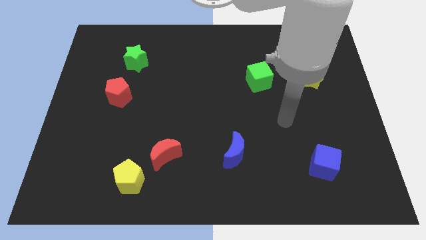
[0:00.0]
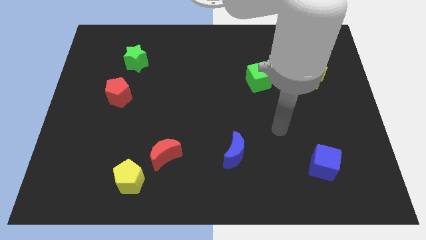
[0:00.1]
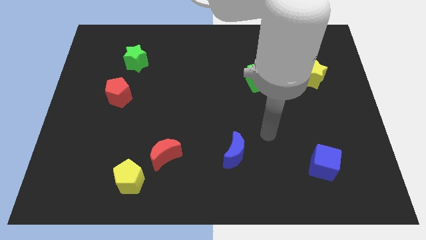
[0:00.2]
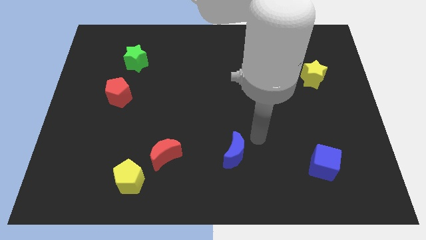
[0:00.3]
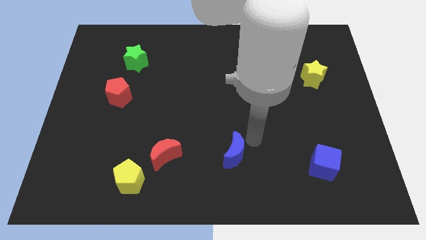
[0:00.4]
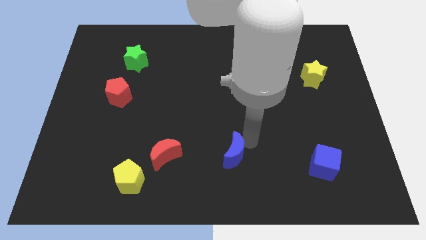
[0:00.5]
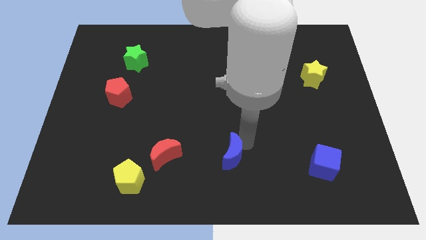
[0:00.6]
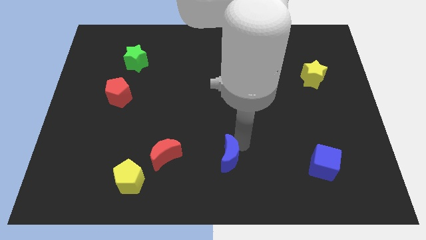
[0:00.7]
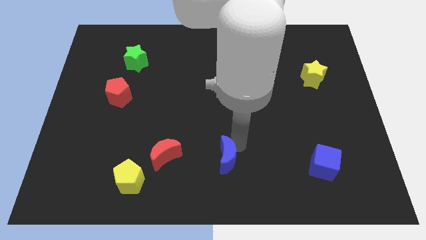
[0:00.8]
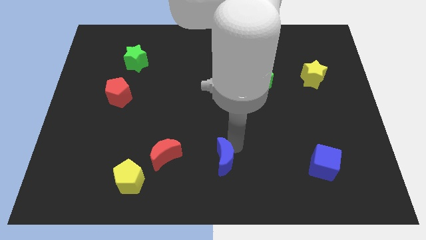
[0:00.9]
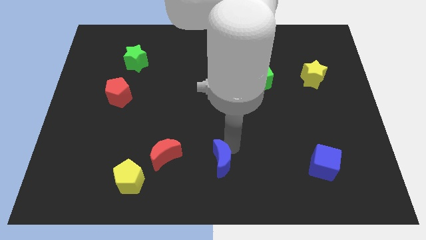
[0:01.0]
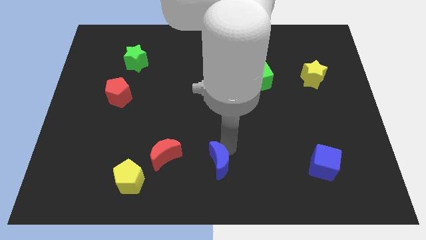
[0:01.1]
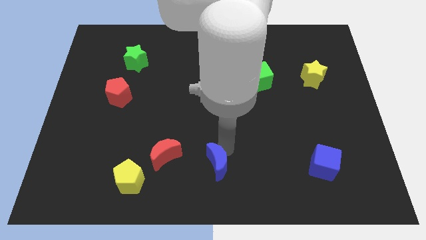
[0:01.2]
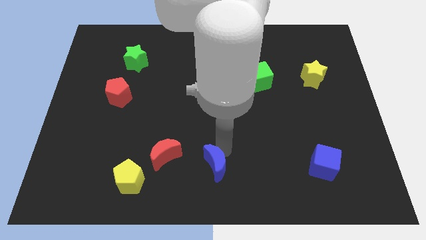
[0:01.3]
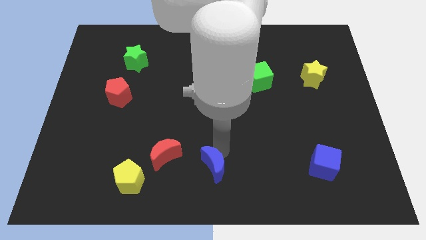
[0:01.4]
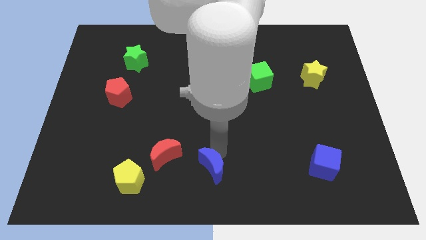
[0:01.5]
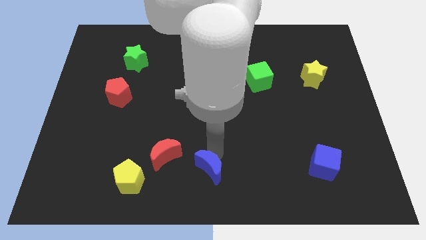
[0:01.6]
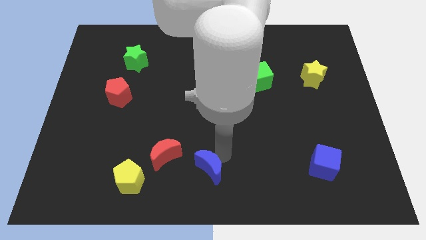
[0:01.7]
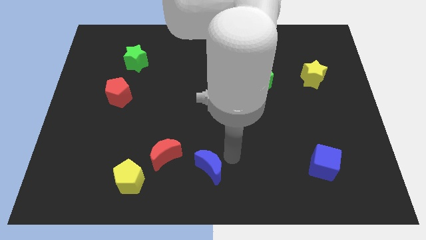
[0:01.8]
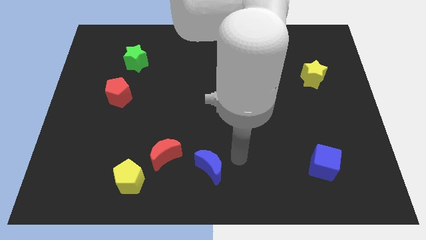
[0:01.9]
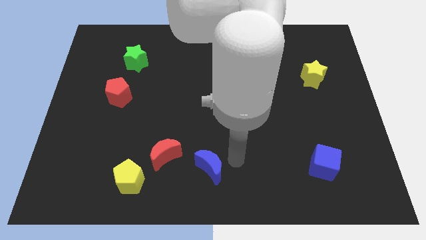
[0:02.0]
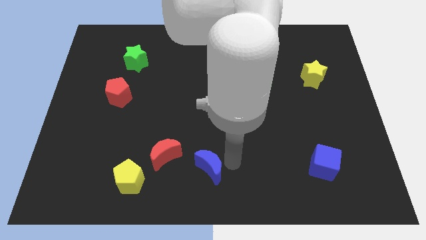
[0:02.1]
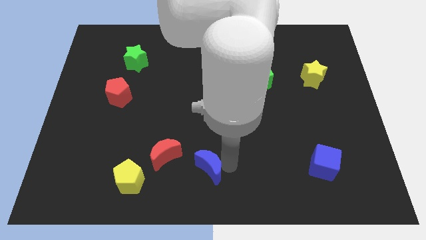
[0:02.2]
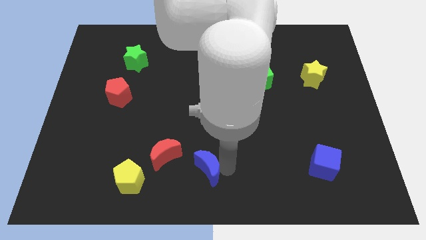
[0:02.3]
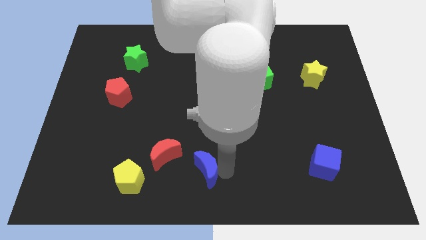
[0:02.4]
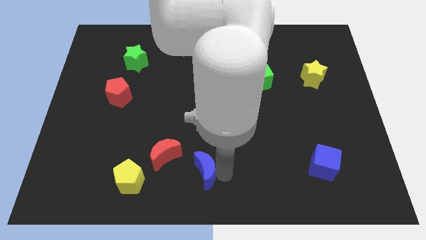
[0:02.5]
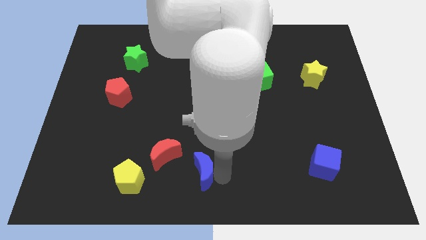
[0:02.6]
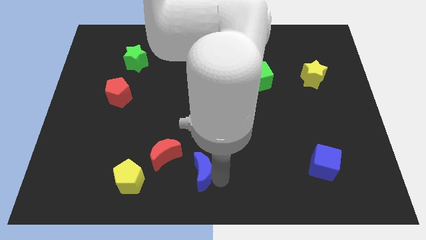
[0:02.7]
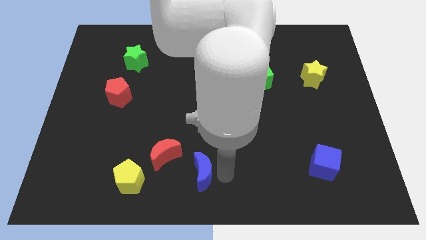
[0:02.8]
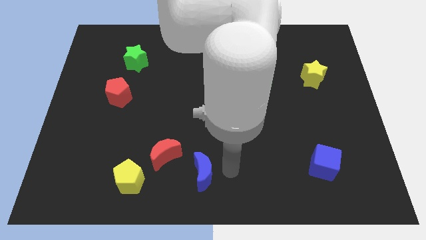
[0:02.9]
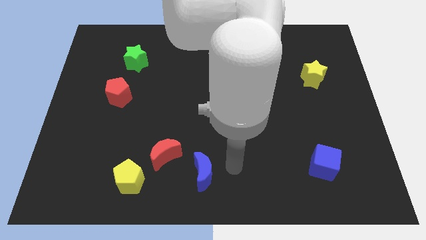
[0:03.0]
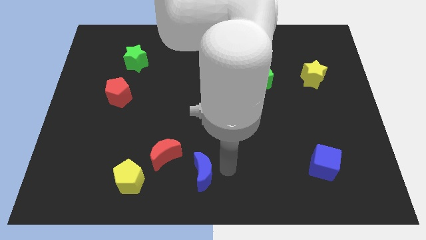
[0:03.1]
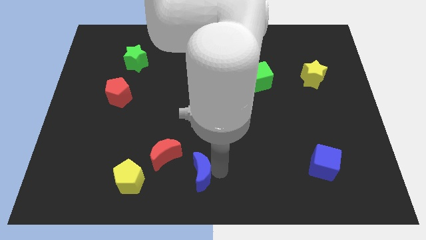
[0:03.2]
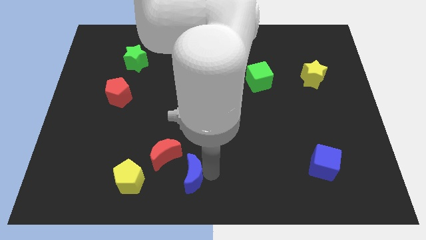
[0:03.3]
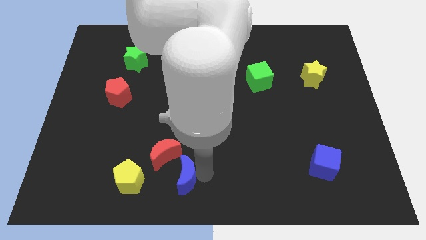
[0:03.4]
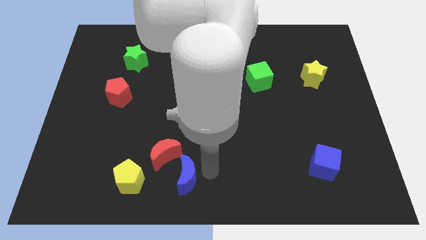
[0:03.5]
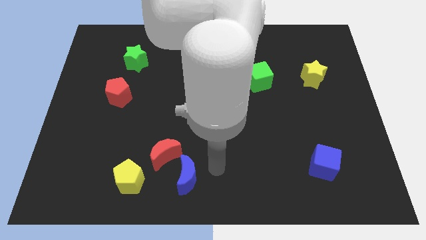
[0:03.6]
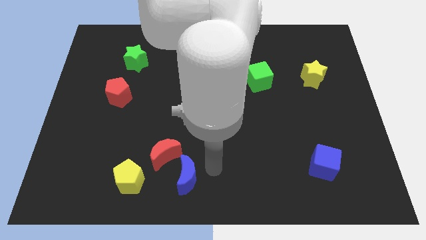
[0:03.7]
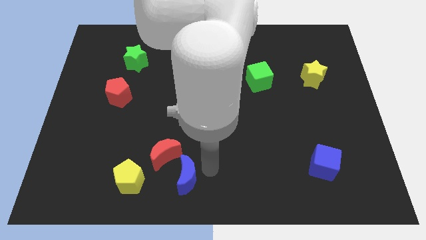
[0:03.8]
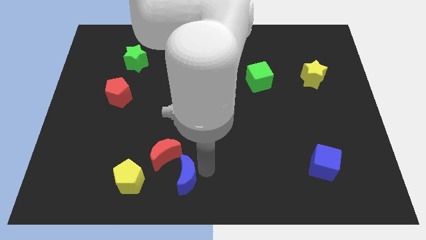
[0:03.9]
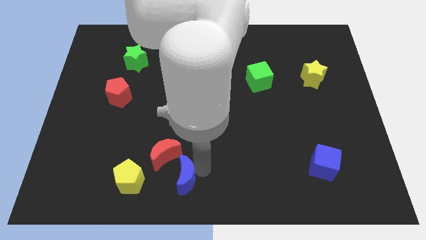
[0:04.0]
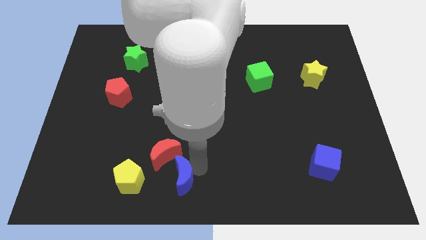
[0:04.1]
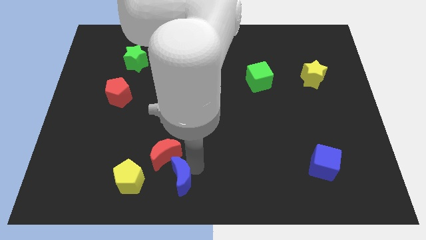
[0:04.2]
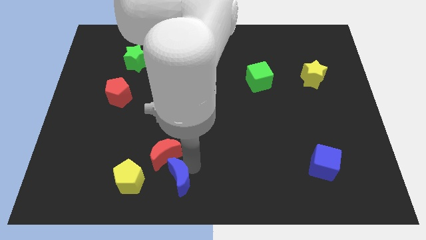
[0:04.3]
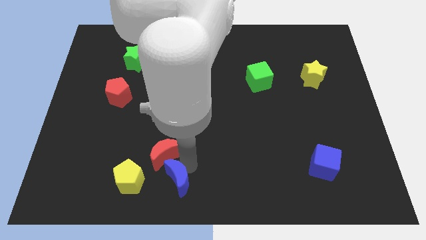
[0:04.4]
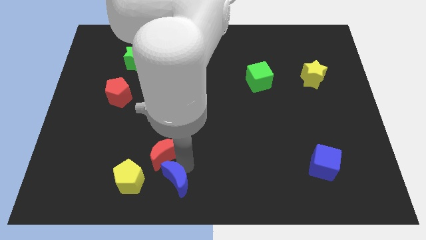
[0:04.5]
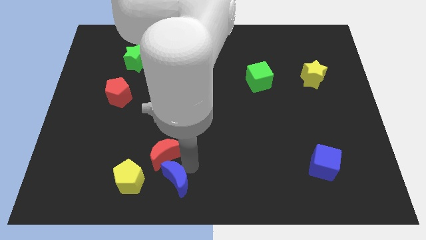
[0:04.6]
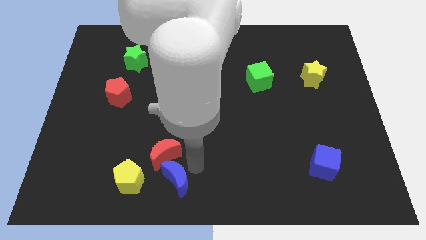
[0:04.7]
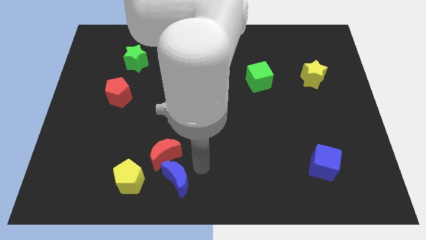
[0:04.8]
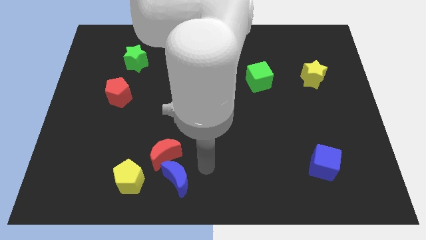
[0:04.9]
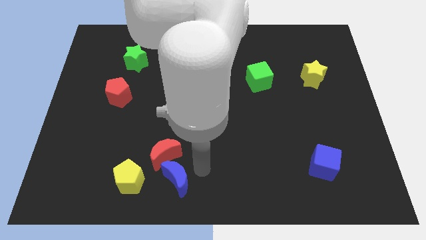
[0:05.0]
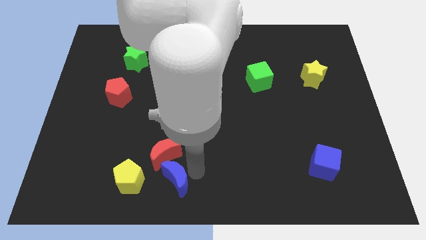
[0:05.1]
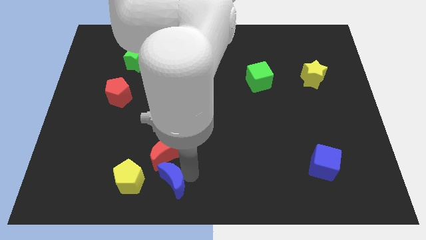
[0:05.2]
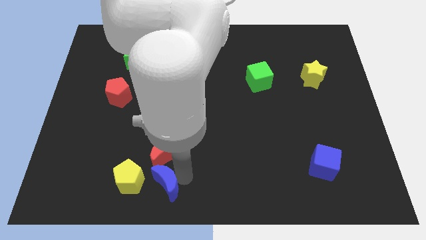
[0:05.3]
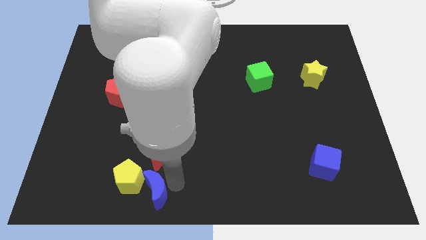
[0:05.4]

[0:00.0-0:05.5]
put the blue moon towards the yellow pentagon

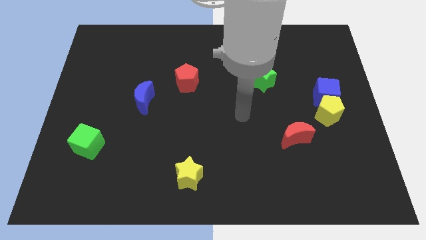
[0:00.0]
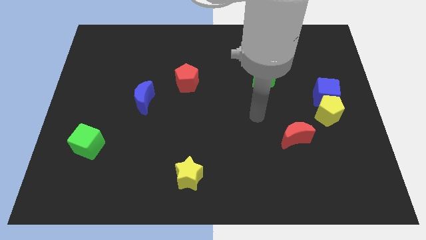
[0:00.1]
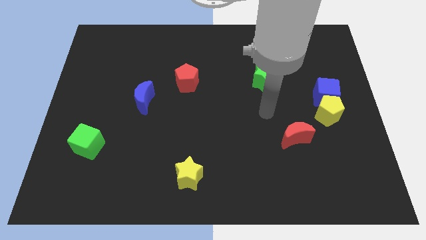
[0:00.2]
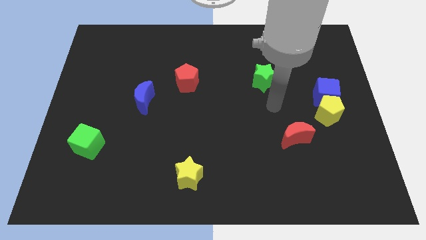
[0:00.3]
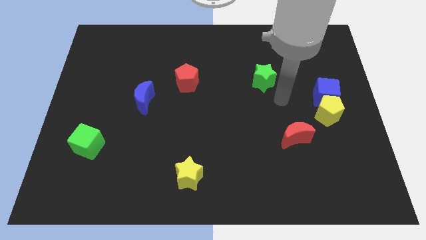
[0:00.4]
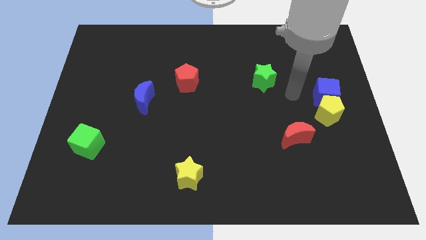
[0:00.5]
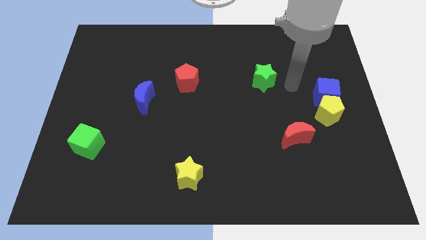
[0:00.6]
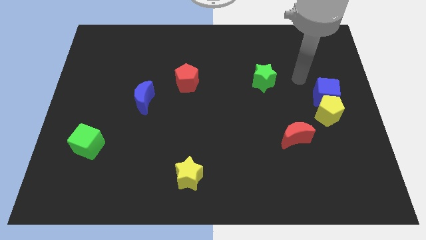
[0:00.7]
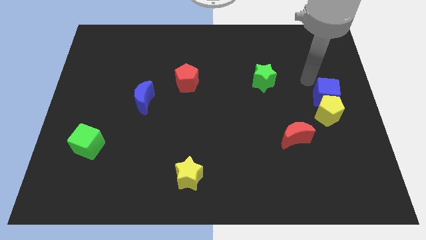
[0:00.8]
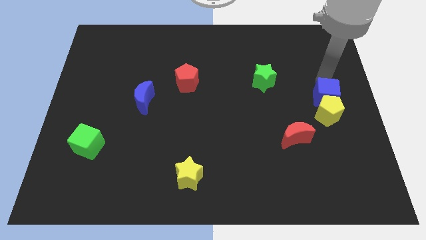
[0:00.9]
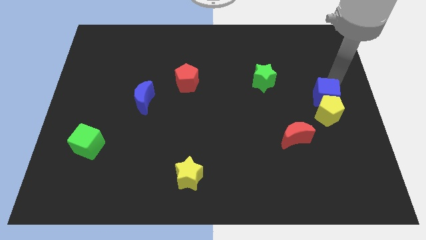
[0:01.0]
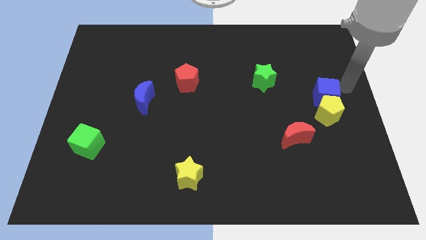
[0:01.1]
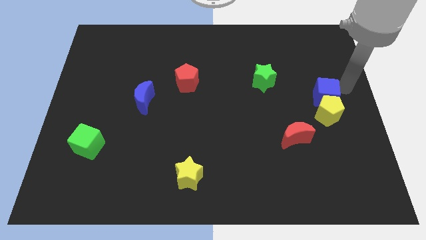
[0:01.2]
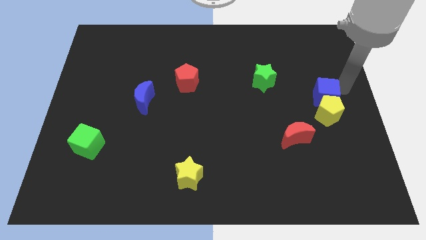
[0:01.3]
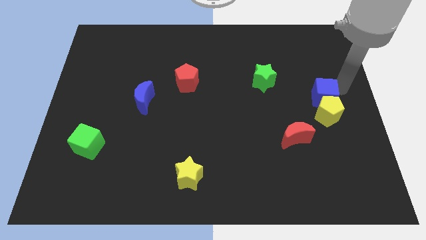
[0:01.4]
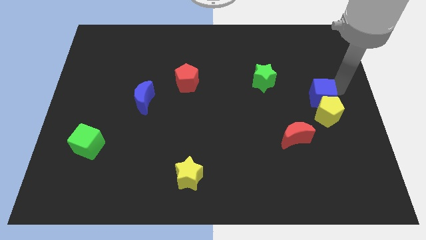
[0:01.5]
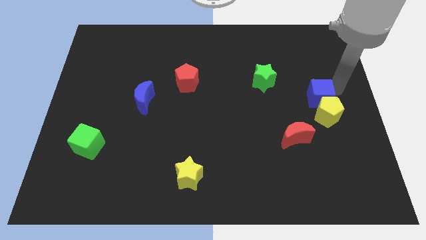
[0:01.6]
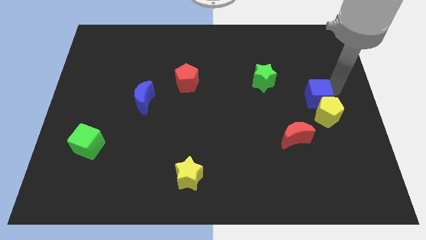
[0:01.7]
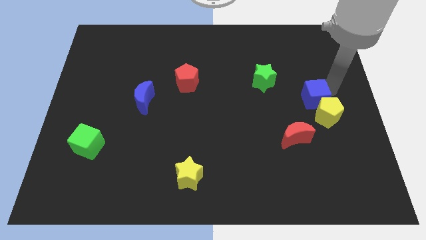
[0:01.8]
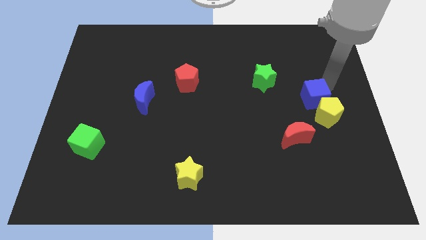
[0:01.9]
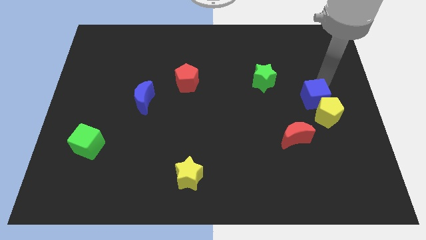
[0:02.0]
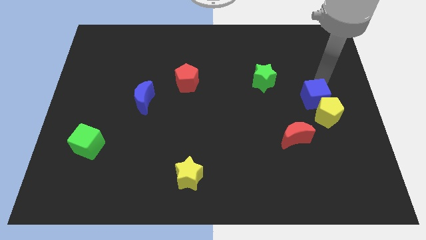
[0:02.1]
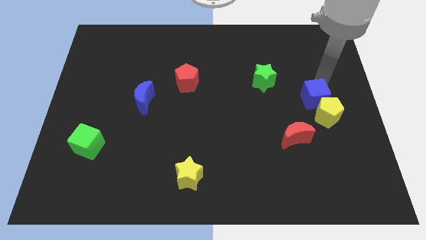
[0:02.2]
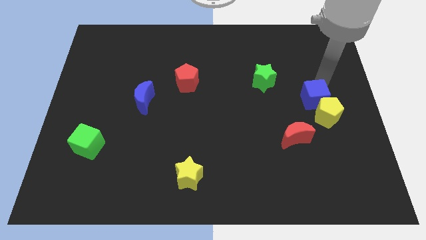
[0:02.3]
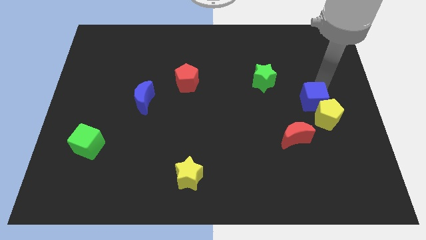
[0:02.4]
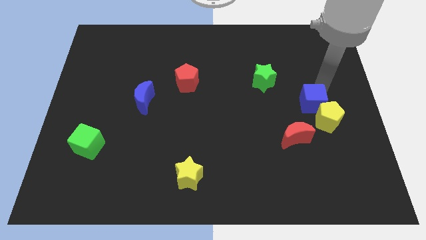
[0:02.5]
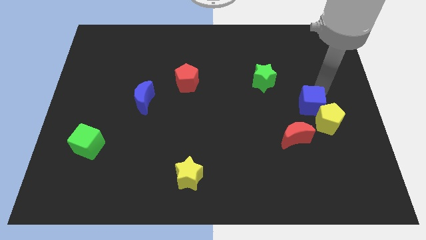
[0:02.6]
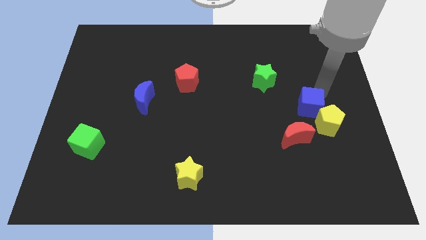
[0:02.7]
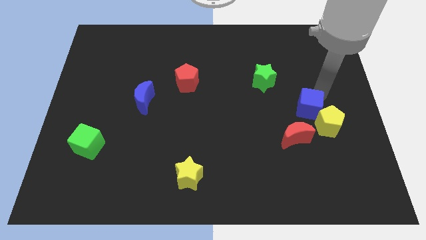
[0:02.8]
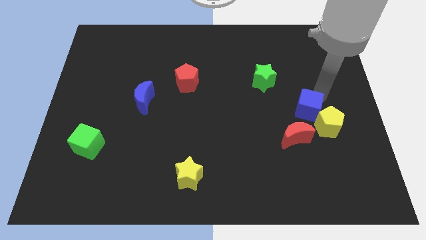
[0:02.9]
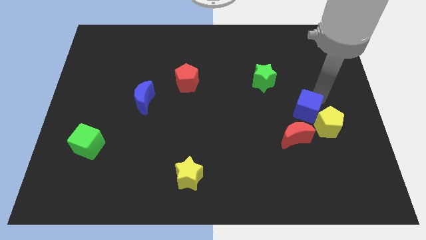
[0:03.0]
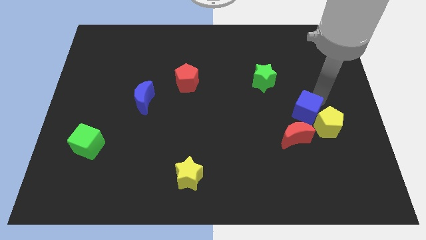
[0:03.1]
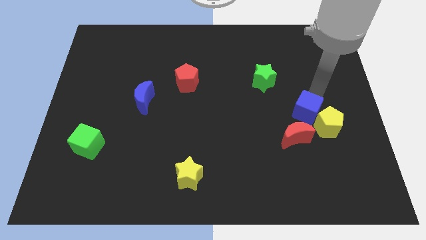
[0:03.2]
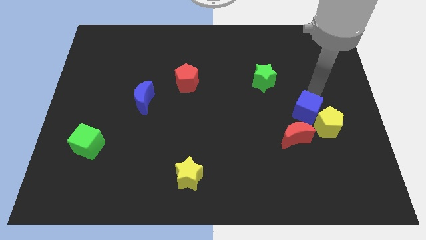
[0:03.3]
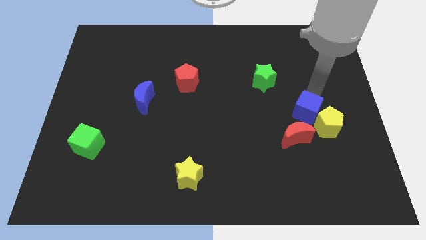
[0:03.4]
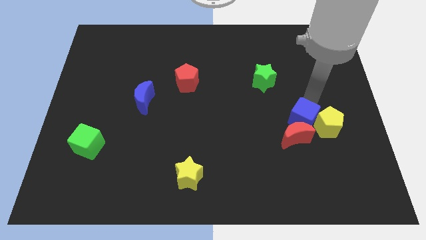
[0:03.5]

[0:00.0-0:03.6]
put the blue cube next to the red moon
